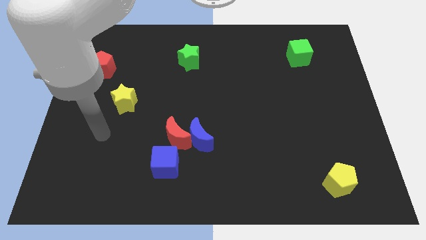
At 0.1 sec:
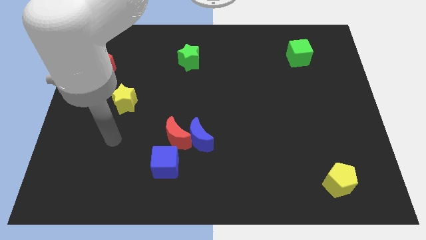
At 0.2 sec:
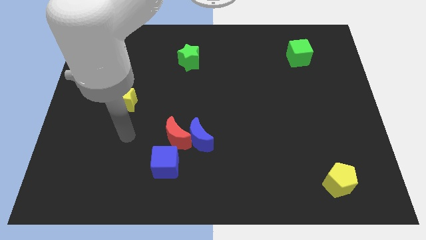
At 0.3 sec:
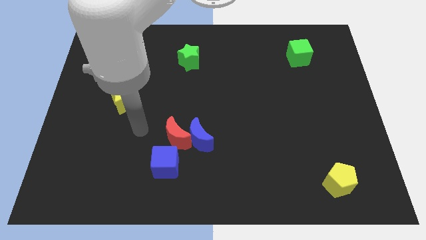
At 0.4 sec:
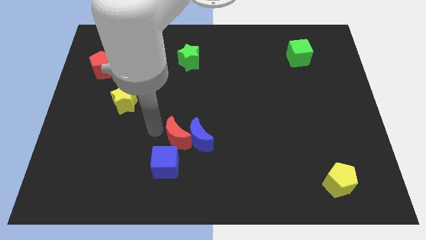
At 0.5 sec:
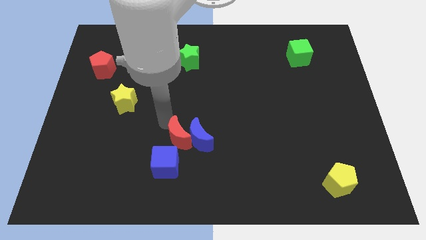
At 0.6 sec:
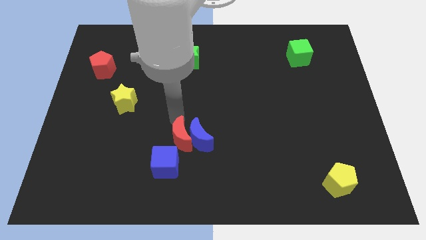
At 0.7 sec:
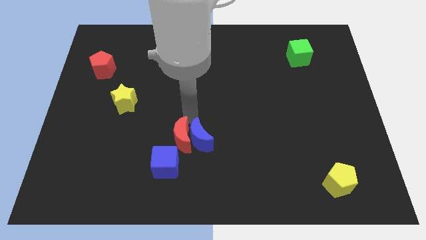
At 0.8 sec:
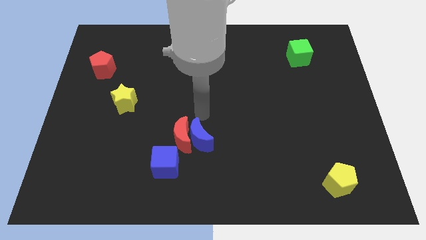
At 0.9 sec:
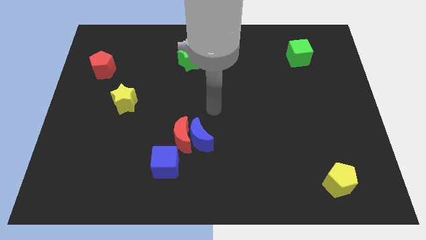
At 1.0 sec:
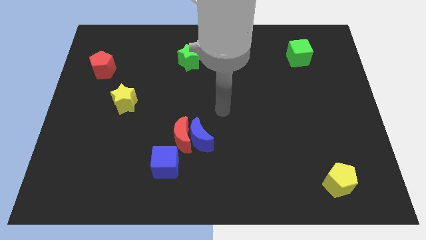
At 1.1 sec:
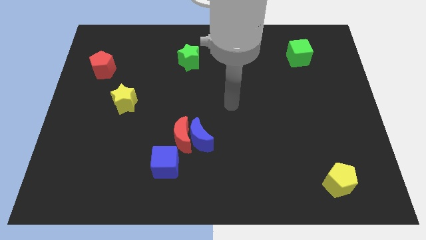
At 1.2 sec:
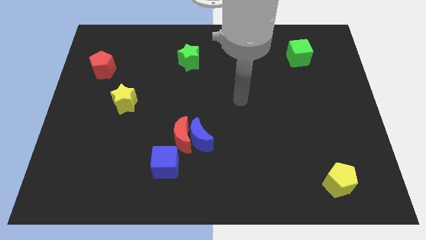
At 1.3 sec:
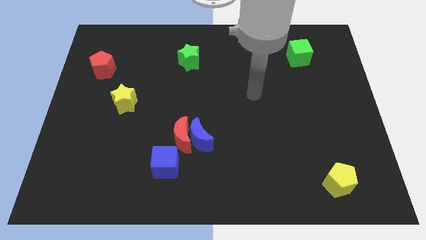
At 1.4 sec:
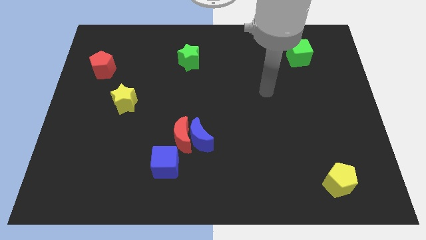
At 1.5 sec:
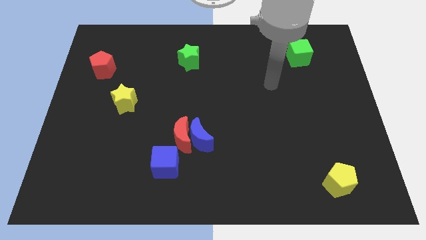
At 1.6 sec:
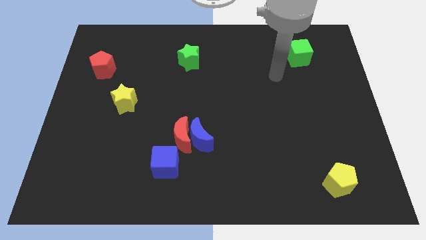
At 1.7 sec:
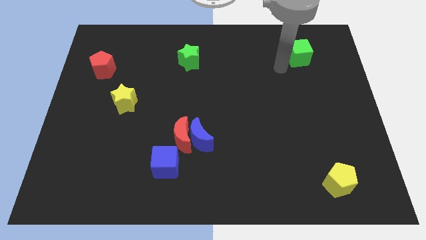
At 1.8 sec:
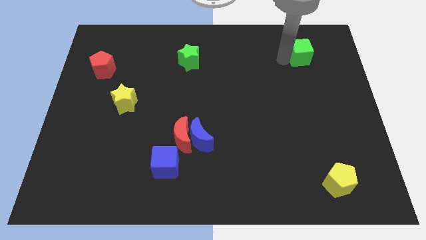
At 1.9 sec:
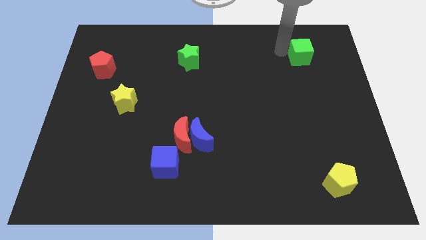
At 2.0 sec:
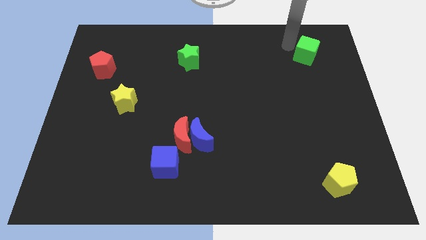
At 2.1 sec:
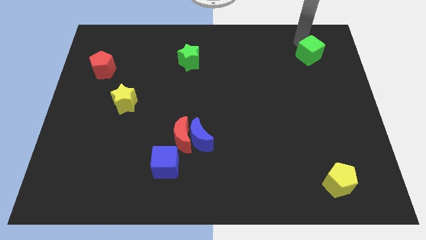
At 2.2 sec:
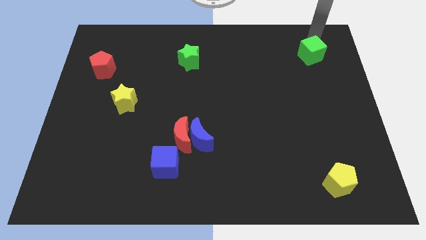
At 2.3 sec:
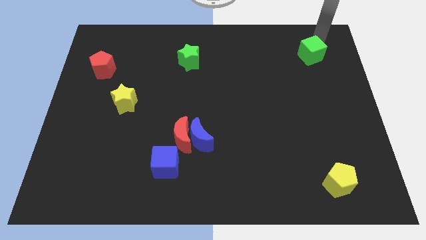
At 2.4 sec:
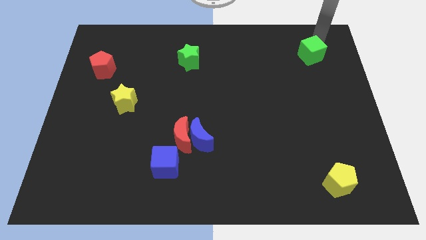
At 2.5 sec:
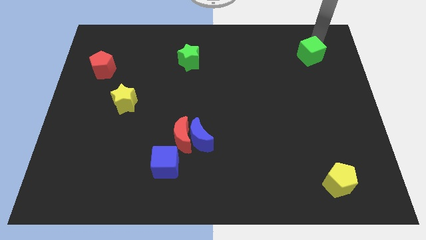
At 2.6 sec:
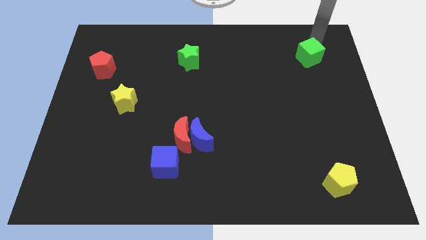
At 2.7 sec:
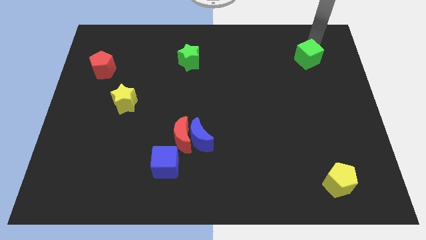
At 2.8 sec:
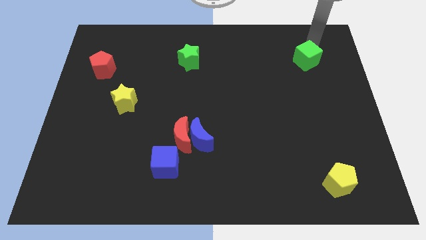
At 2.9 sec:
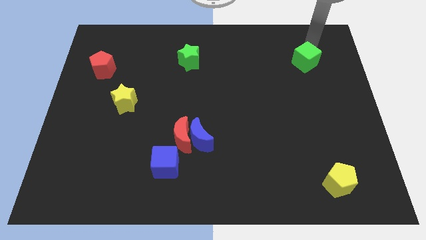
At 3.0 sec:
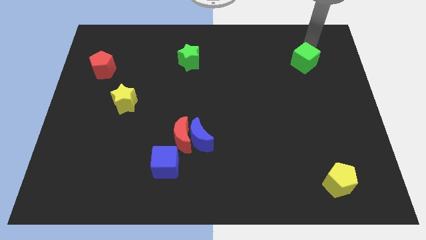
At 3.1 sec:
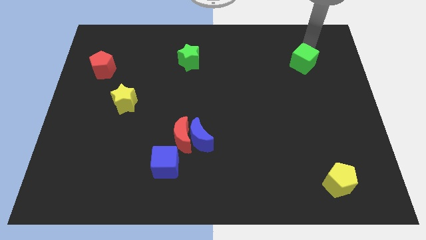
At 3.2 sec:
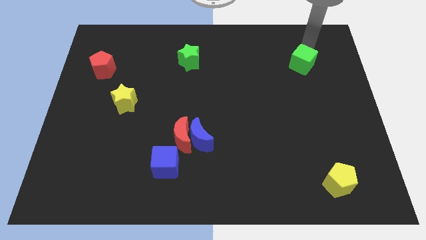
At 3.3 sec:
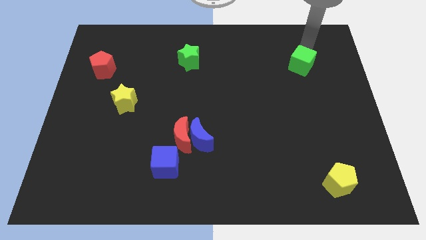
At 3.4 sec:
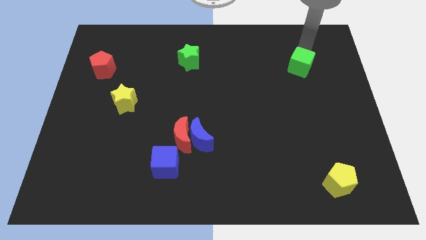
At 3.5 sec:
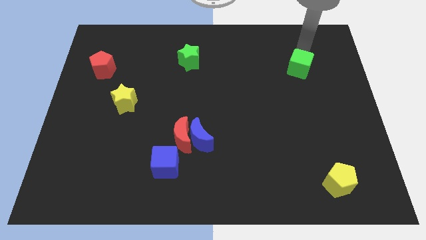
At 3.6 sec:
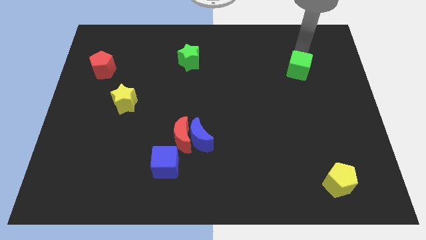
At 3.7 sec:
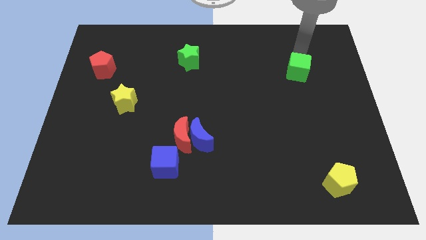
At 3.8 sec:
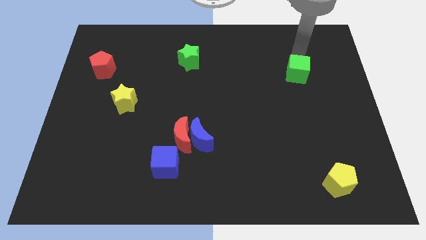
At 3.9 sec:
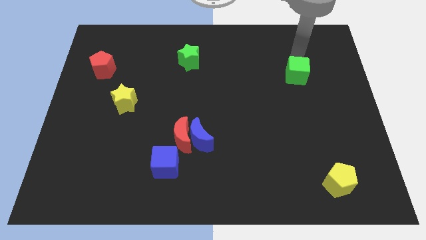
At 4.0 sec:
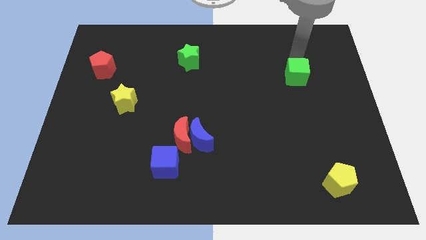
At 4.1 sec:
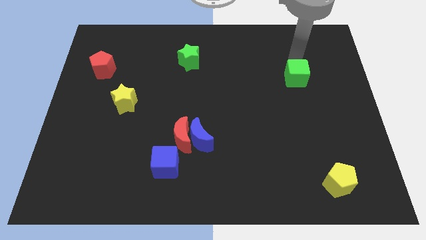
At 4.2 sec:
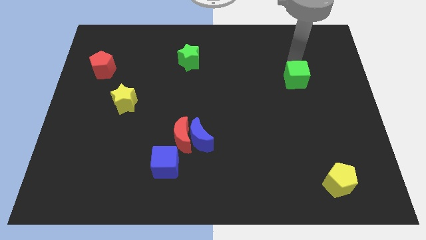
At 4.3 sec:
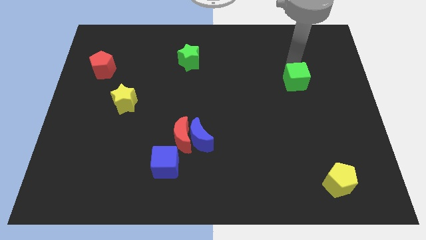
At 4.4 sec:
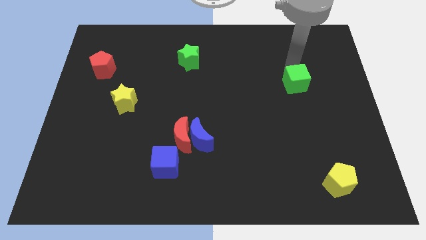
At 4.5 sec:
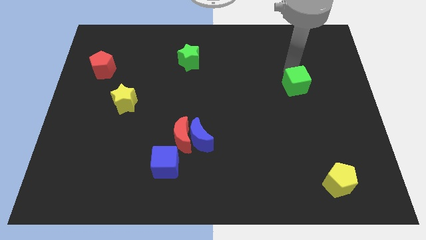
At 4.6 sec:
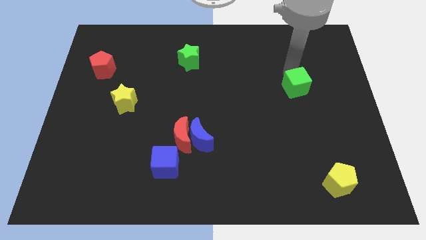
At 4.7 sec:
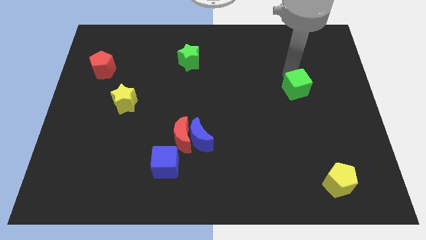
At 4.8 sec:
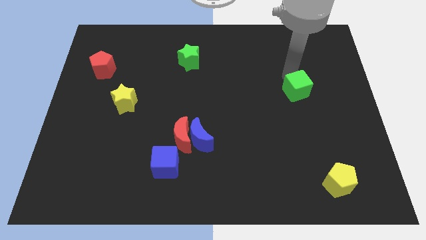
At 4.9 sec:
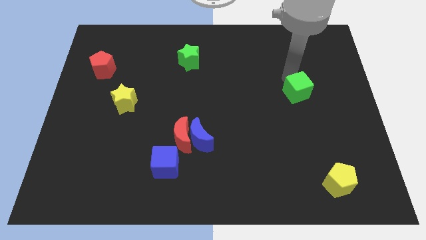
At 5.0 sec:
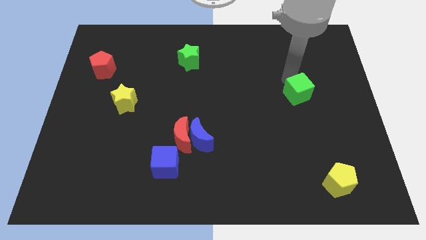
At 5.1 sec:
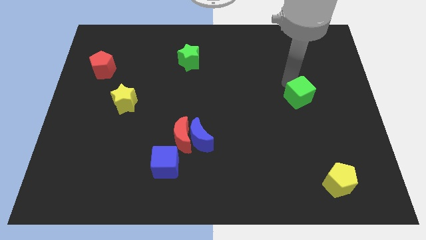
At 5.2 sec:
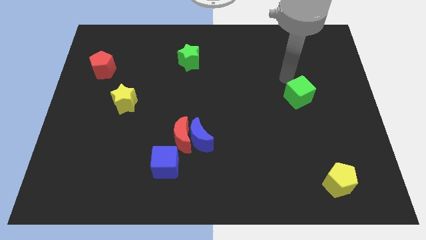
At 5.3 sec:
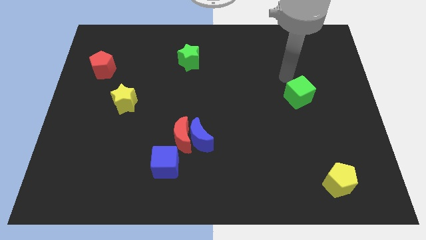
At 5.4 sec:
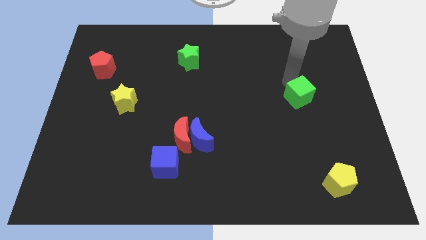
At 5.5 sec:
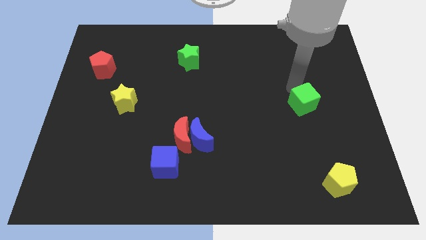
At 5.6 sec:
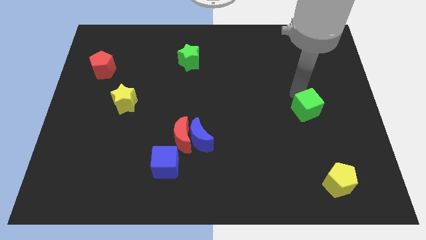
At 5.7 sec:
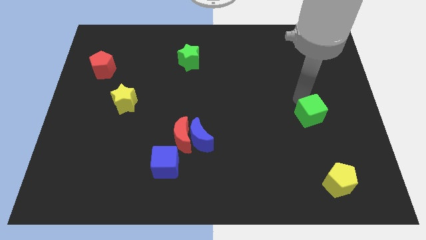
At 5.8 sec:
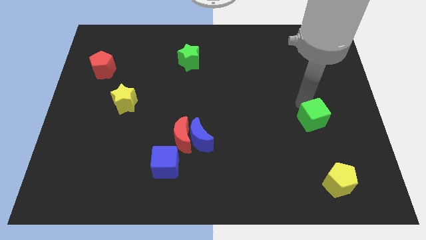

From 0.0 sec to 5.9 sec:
move the green cube downwards

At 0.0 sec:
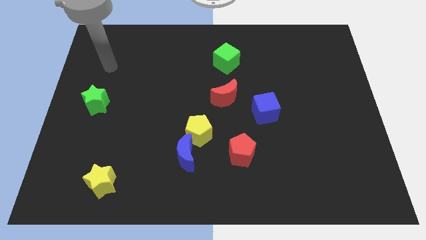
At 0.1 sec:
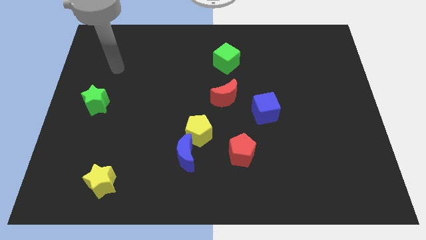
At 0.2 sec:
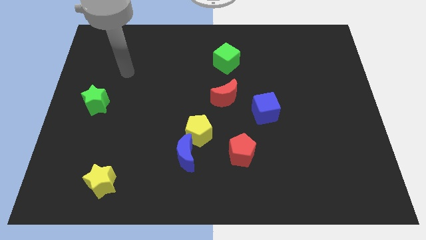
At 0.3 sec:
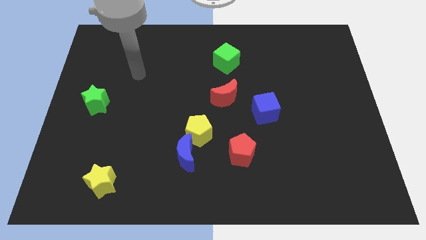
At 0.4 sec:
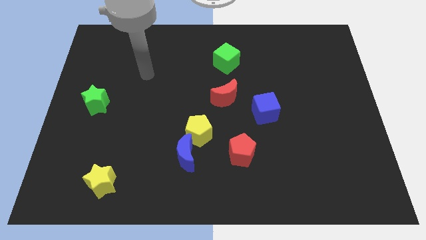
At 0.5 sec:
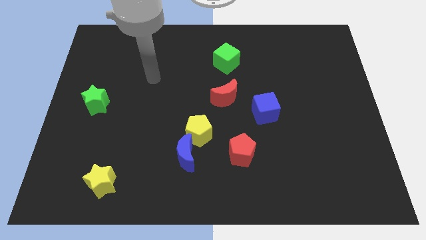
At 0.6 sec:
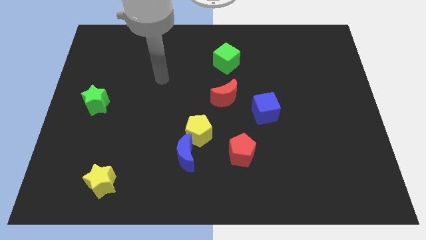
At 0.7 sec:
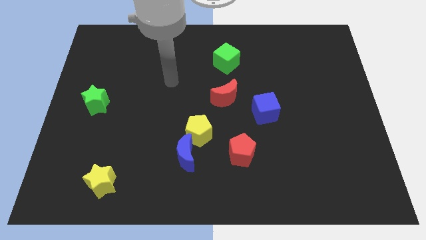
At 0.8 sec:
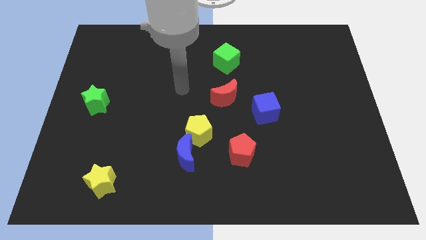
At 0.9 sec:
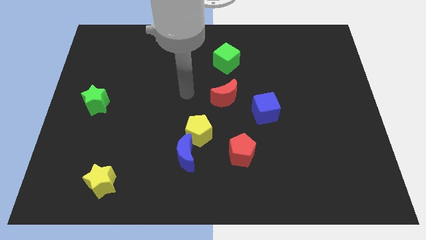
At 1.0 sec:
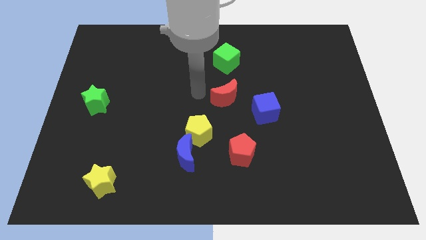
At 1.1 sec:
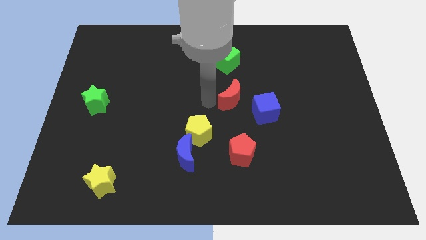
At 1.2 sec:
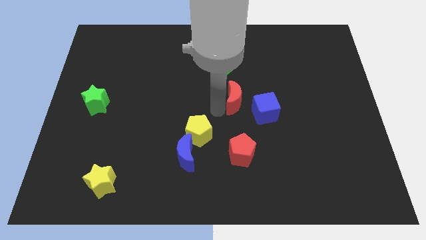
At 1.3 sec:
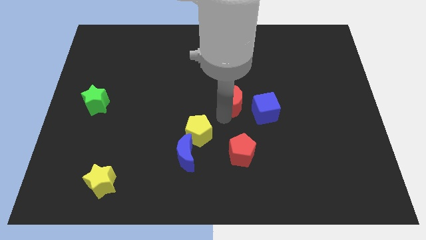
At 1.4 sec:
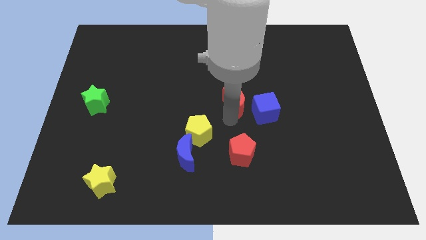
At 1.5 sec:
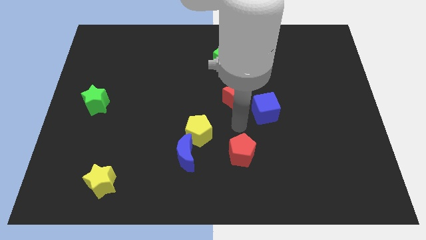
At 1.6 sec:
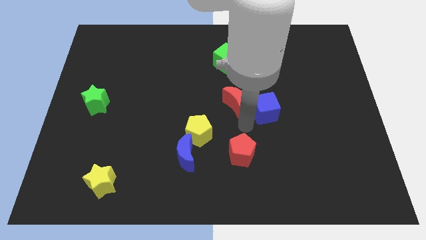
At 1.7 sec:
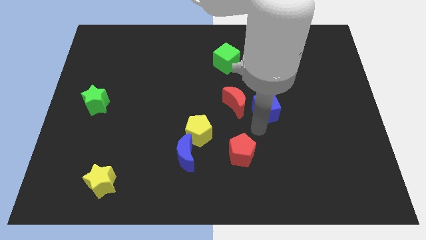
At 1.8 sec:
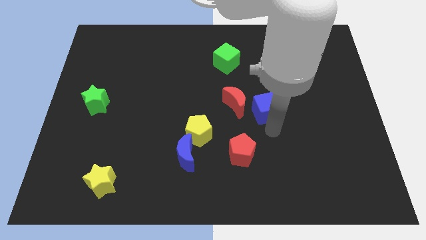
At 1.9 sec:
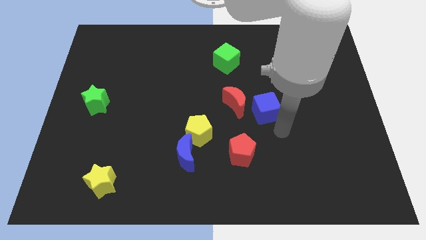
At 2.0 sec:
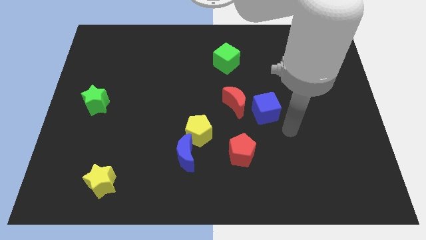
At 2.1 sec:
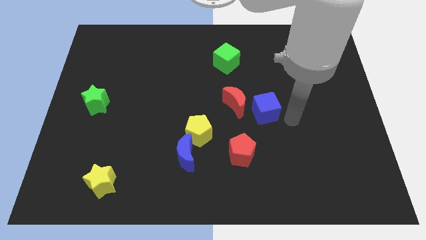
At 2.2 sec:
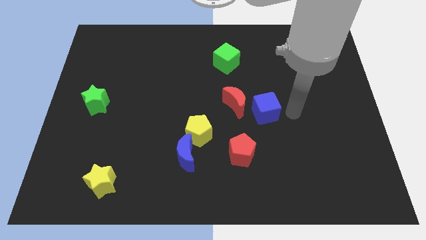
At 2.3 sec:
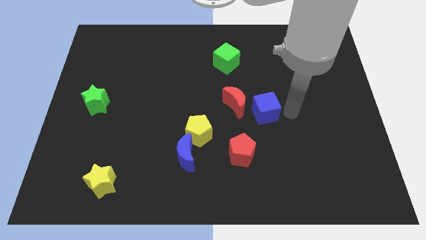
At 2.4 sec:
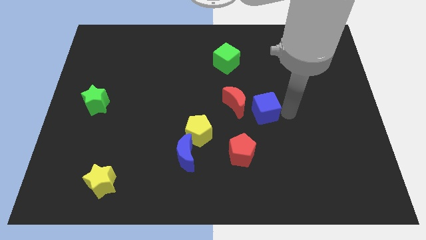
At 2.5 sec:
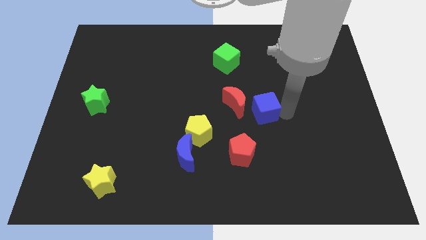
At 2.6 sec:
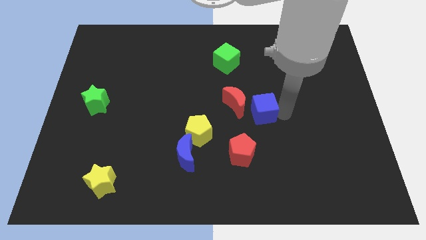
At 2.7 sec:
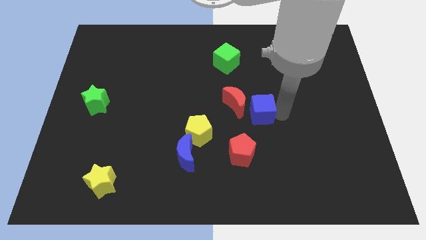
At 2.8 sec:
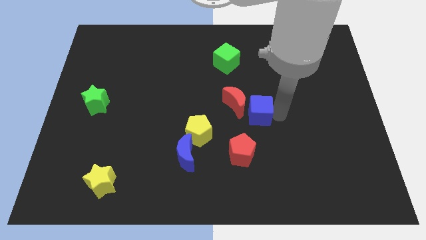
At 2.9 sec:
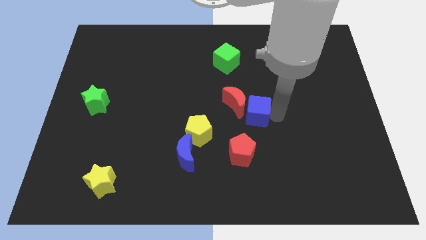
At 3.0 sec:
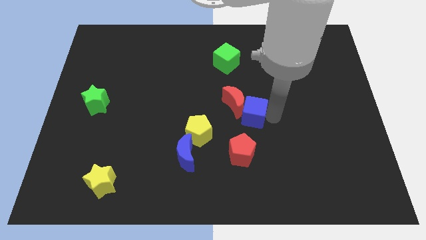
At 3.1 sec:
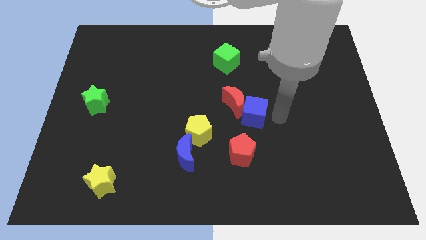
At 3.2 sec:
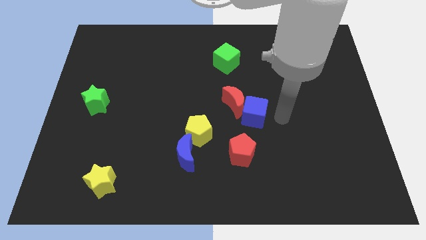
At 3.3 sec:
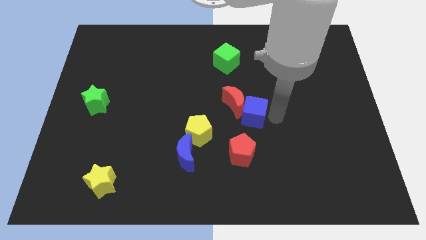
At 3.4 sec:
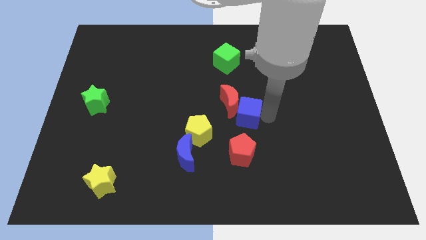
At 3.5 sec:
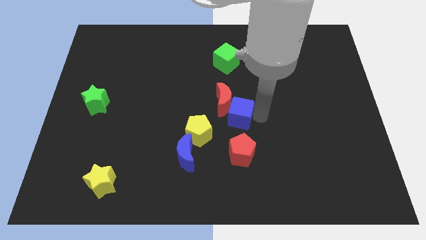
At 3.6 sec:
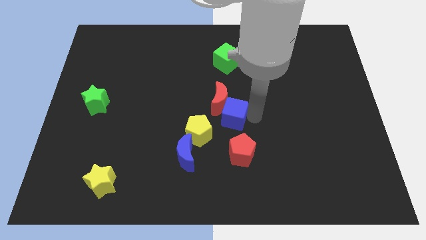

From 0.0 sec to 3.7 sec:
slightly push the blue cube to the left
